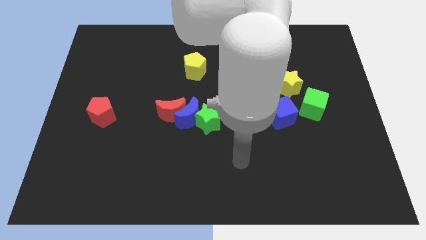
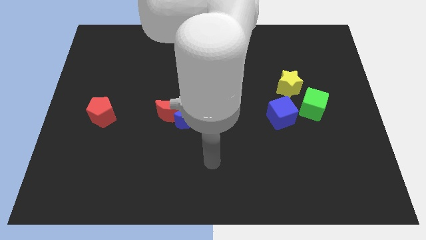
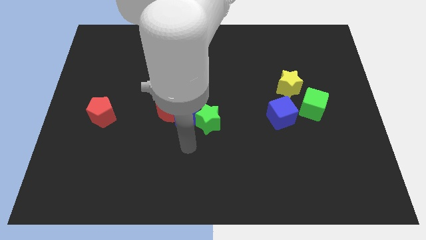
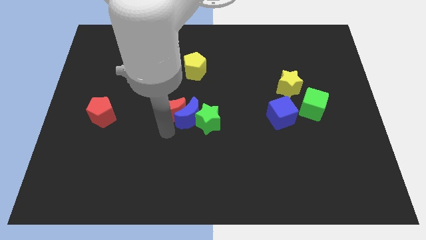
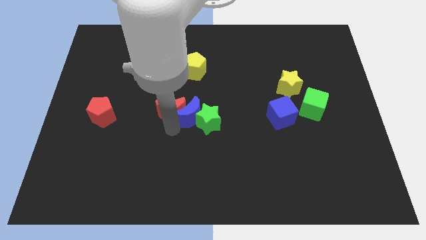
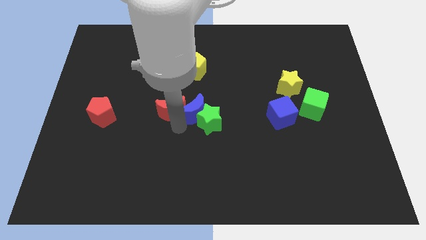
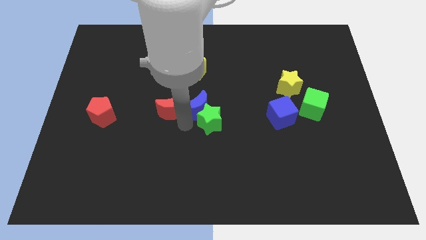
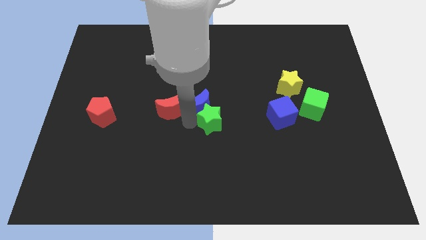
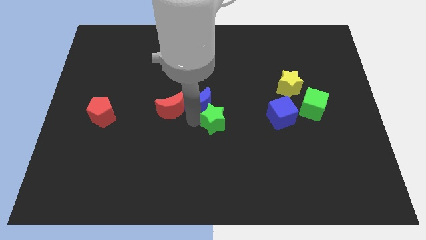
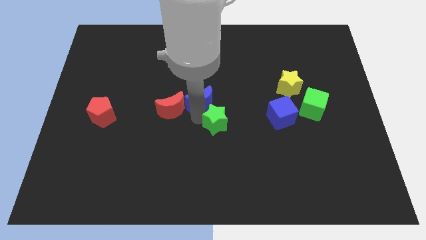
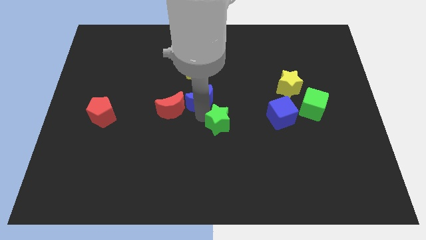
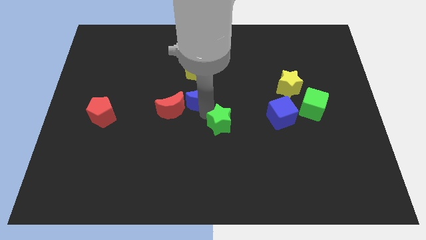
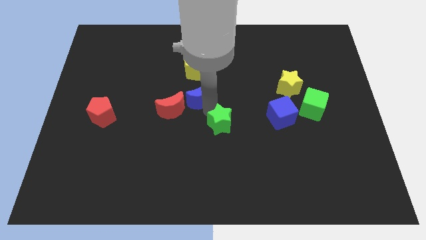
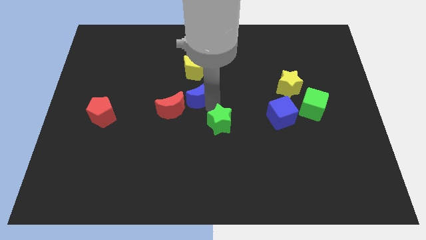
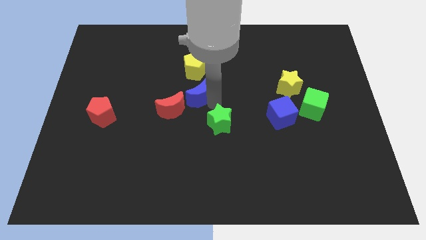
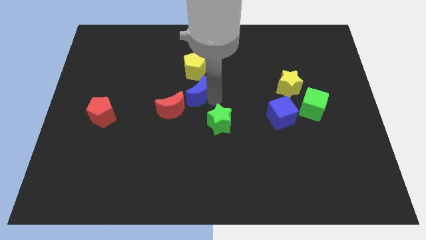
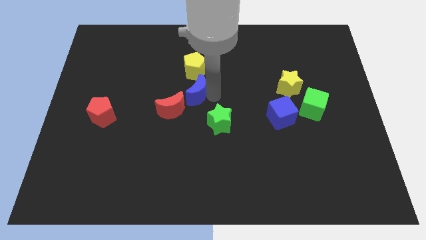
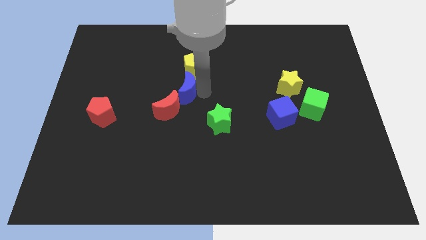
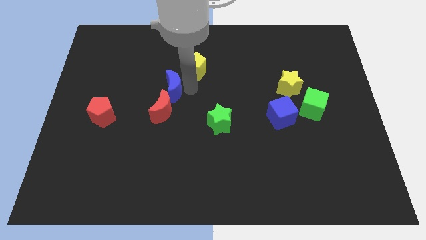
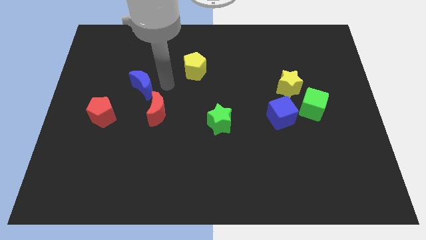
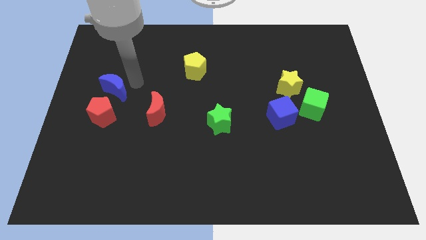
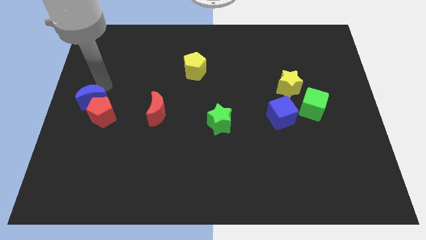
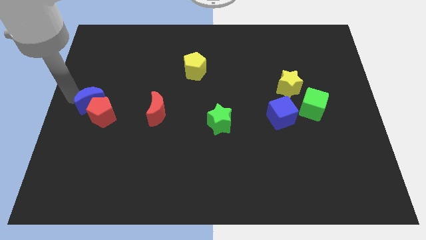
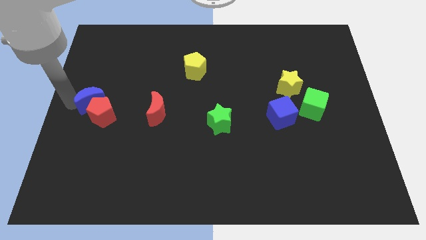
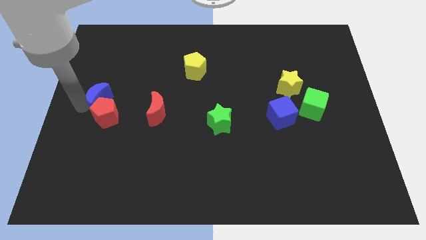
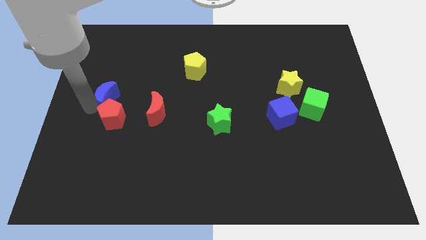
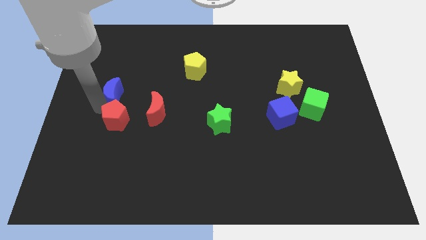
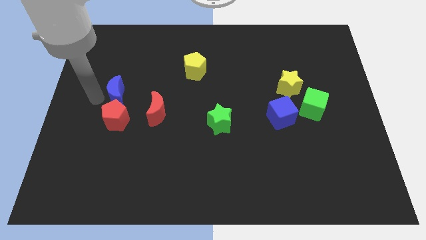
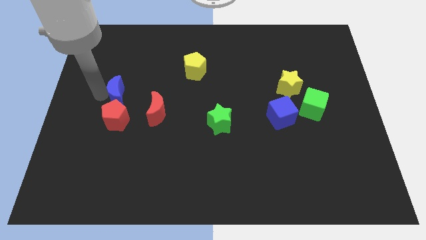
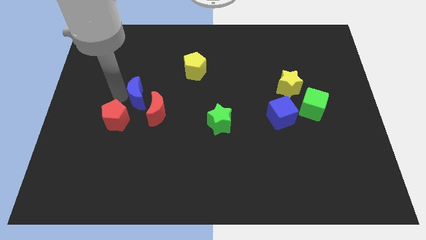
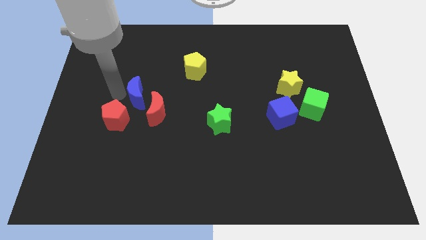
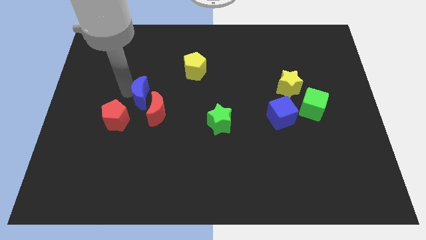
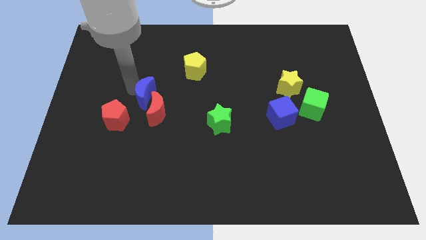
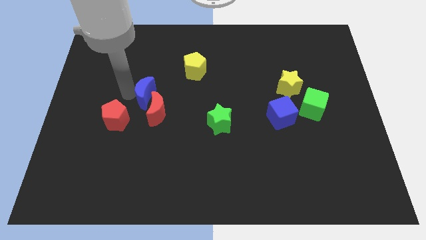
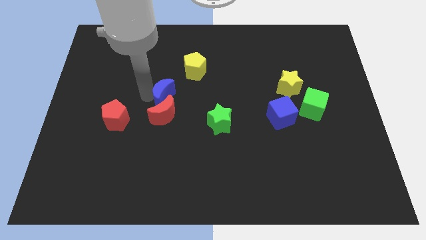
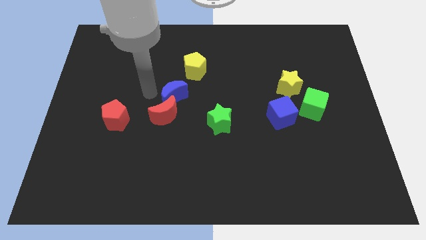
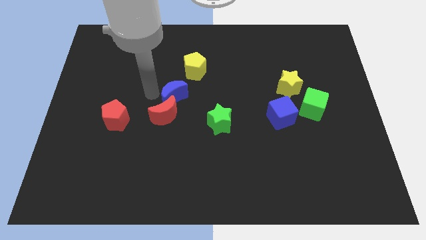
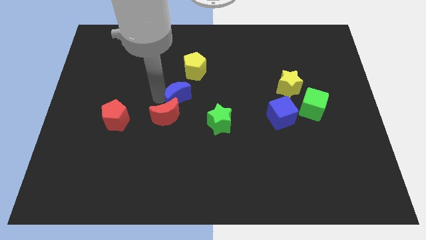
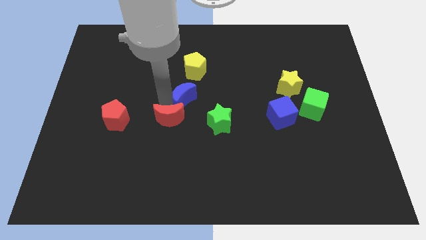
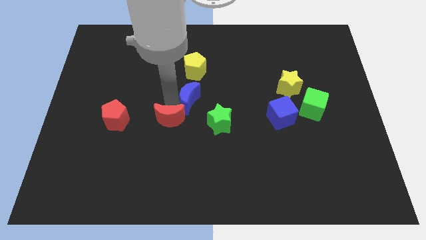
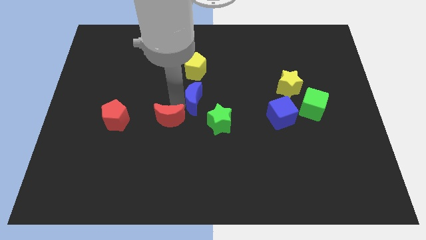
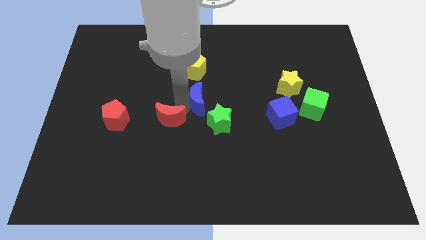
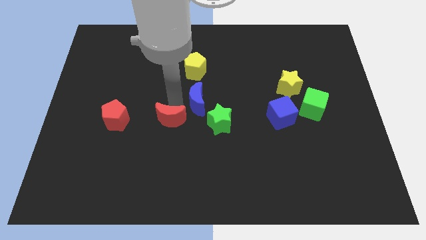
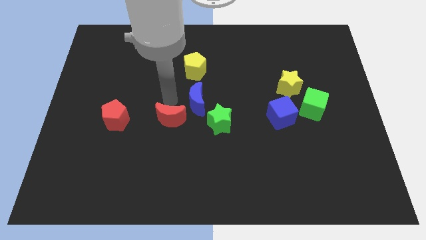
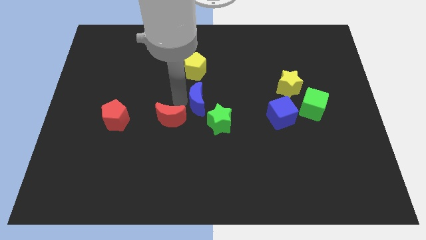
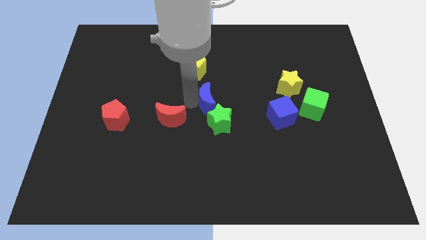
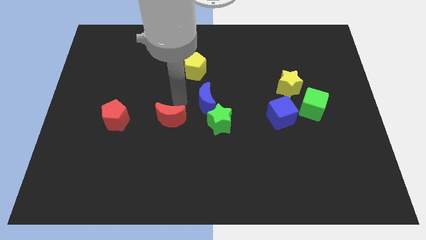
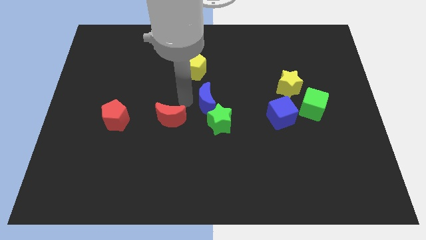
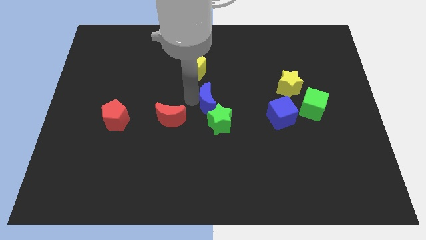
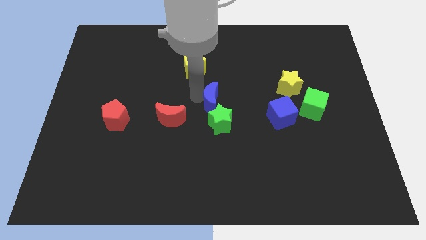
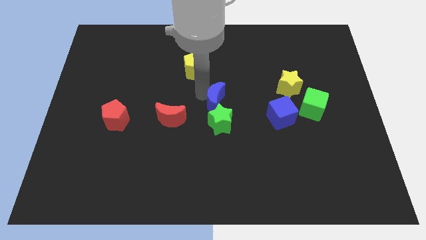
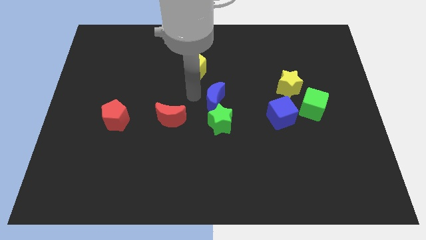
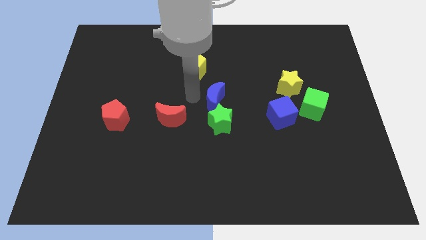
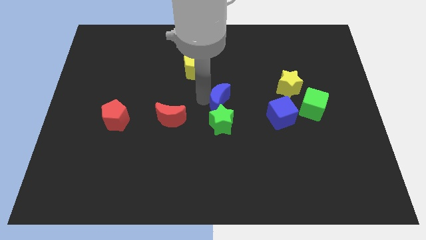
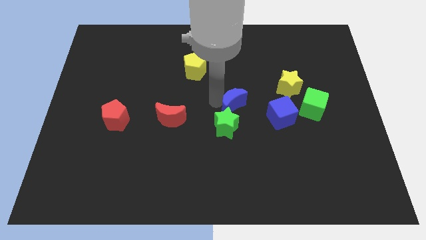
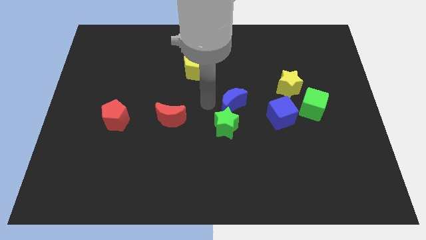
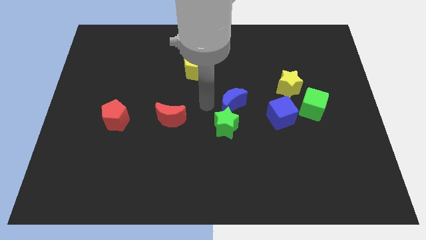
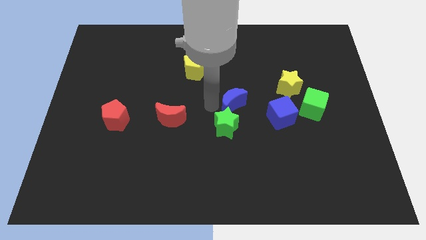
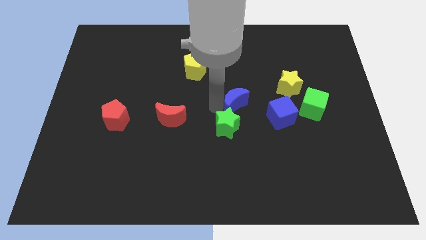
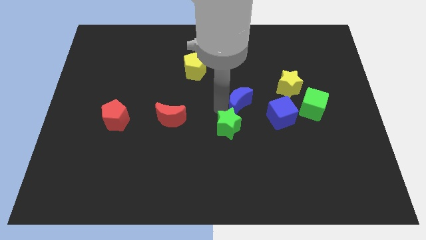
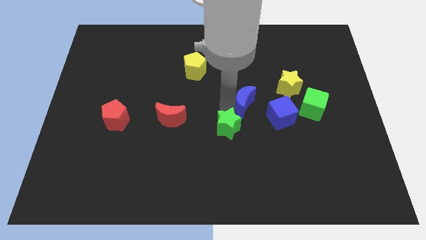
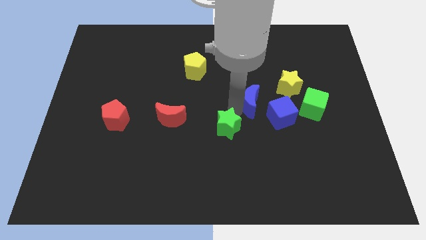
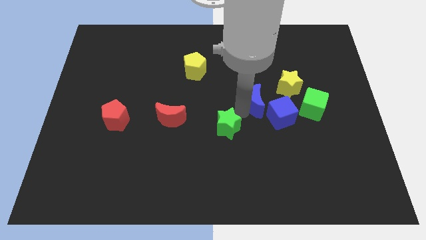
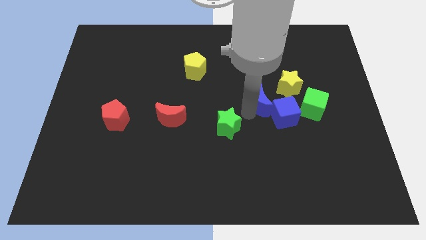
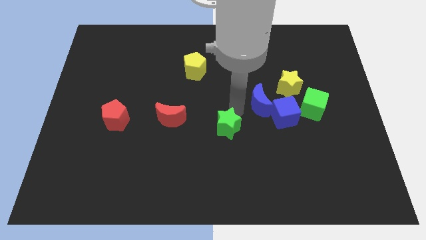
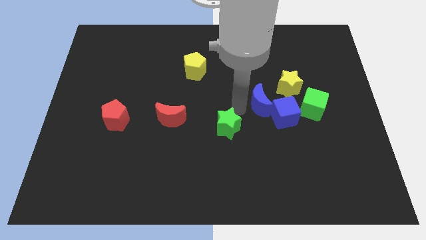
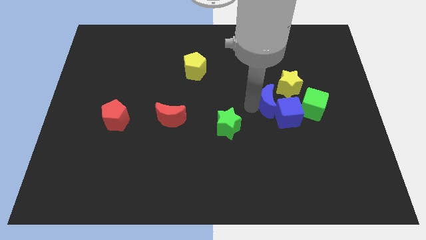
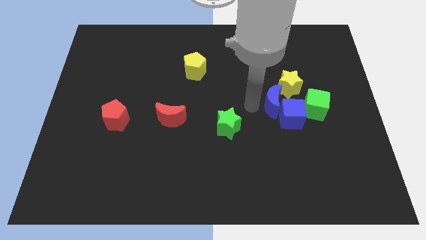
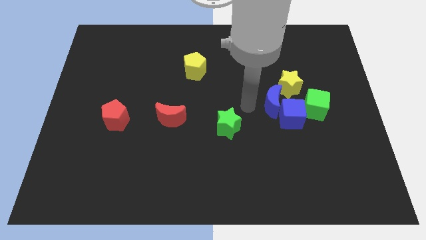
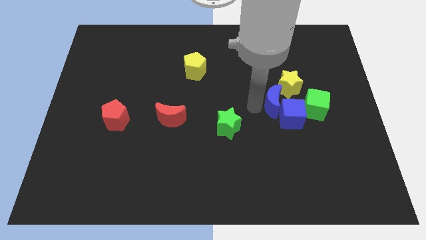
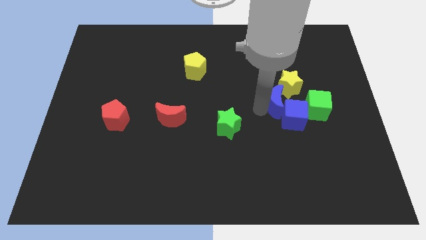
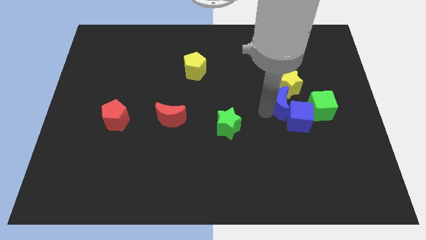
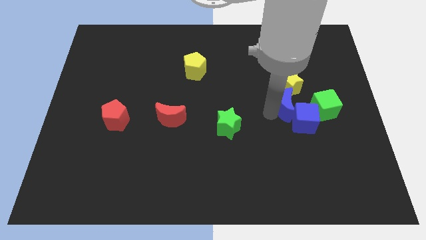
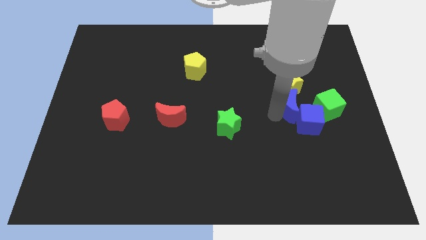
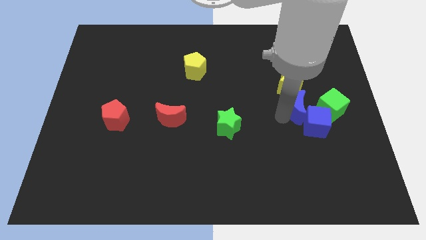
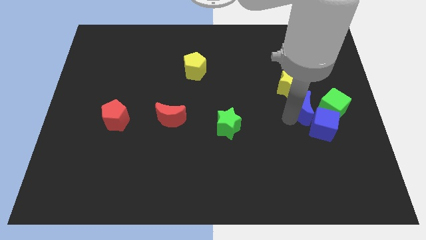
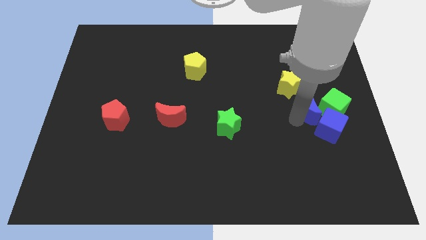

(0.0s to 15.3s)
move the blue moon close to the green cube
